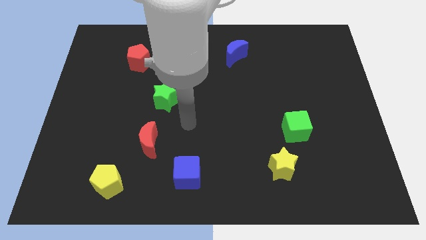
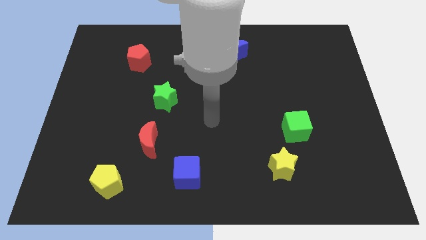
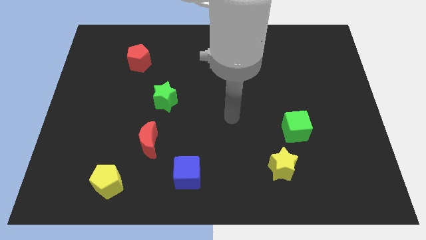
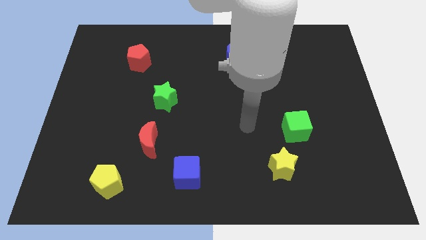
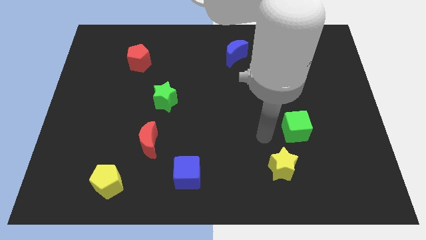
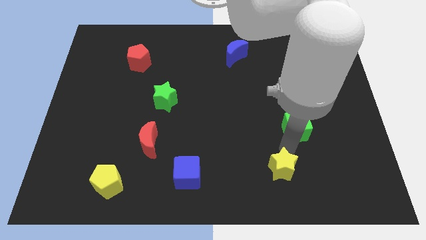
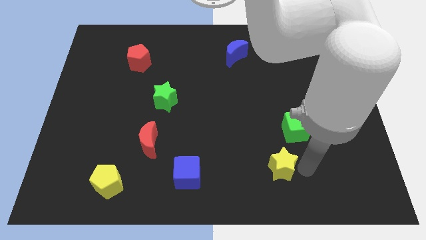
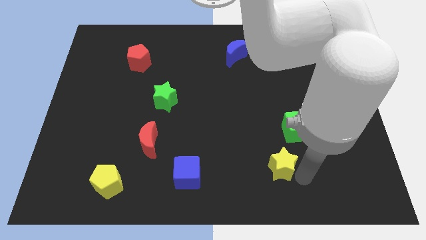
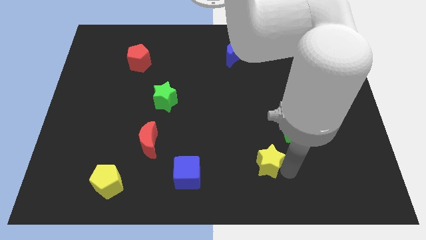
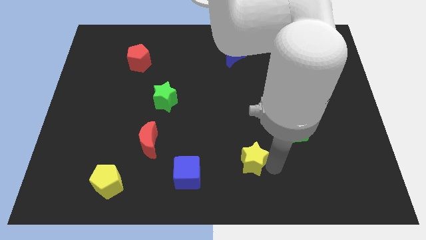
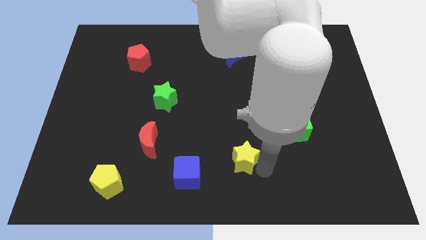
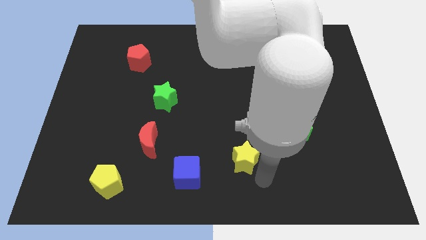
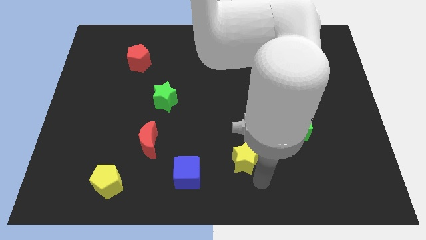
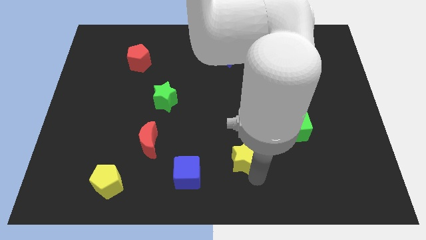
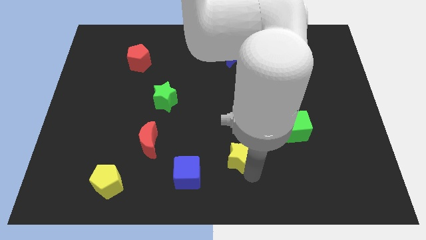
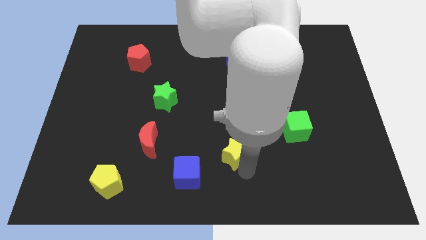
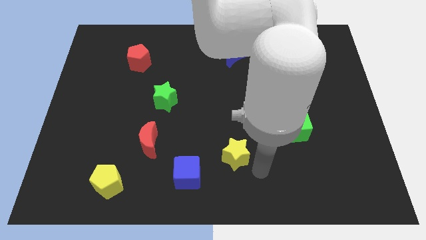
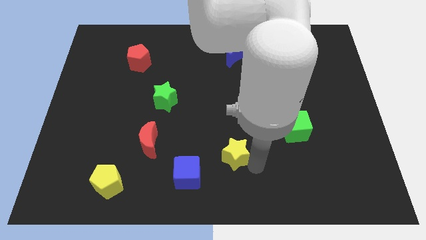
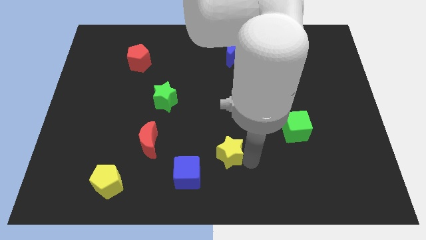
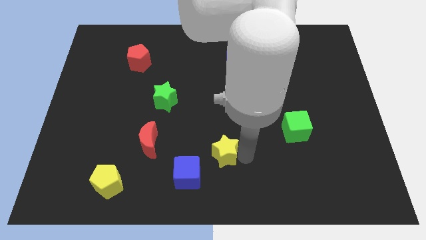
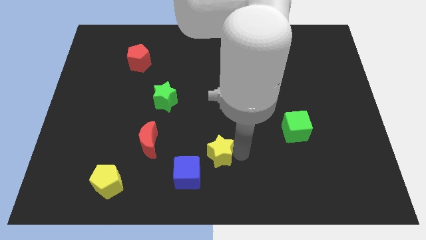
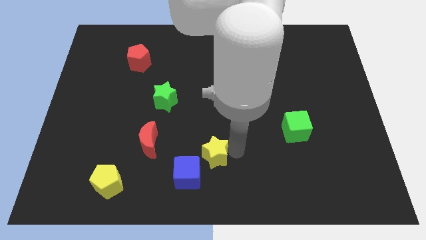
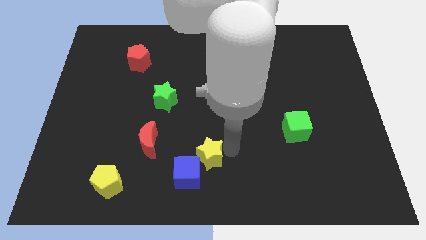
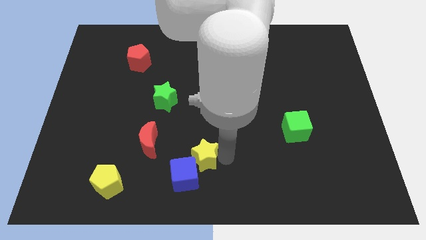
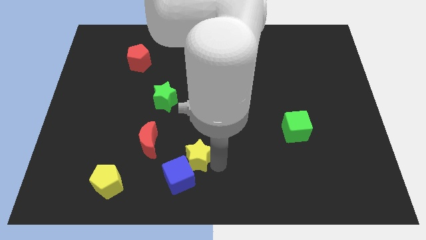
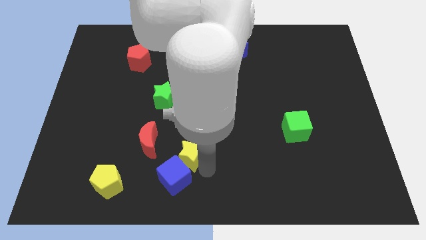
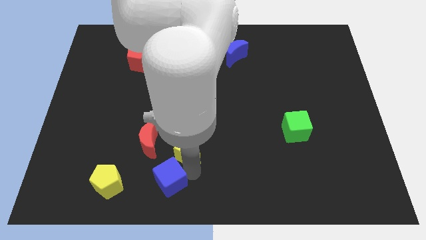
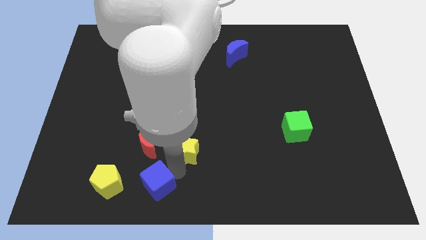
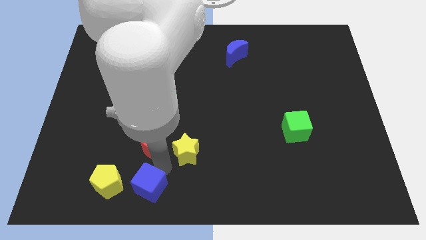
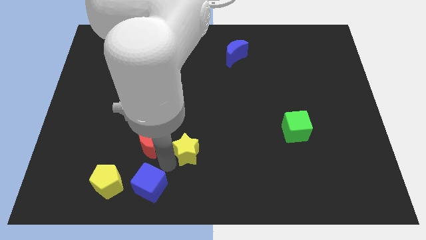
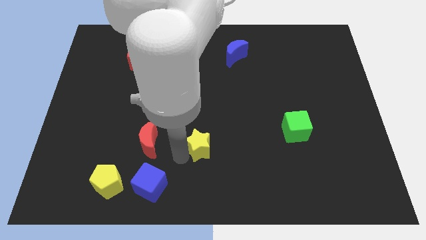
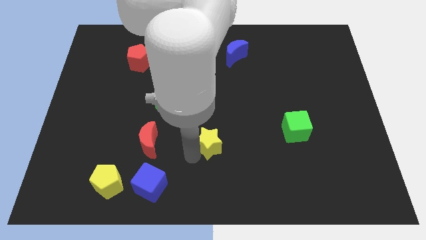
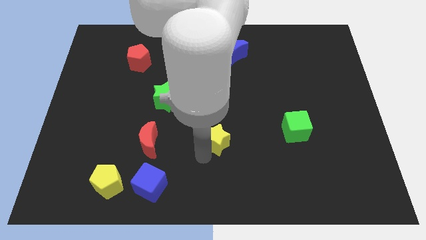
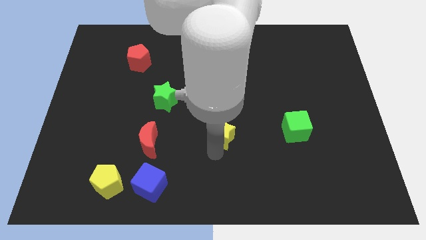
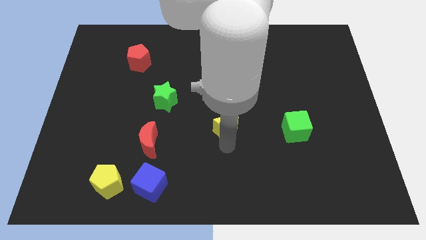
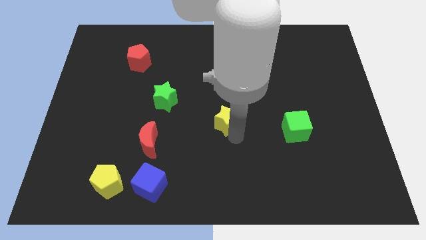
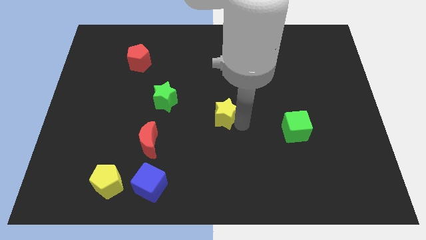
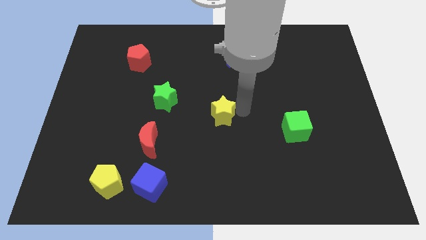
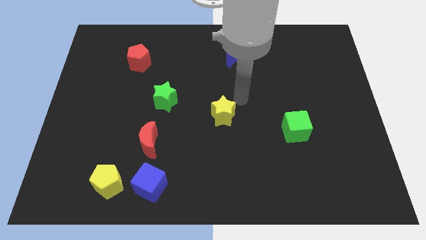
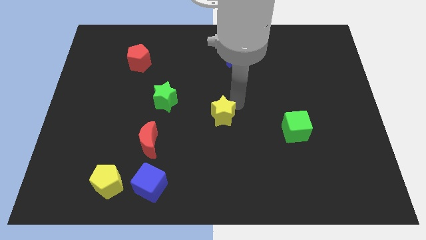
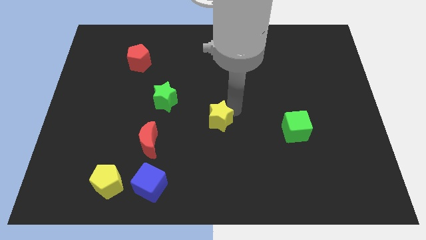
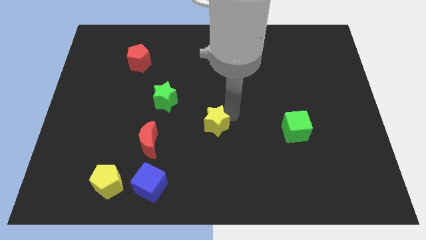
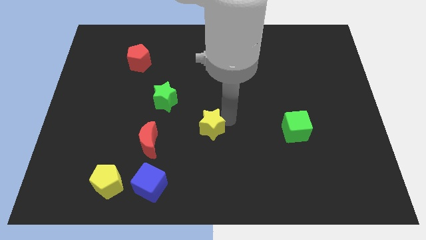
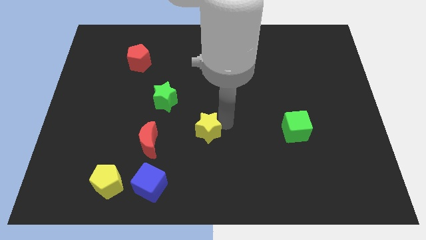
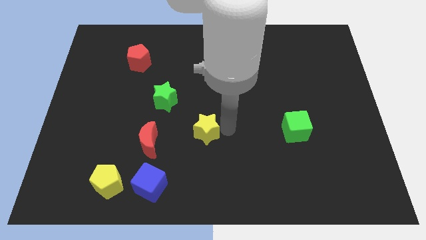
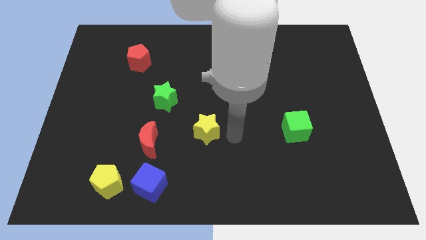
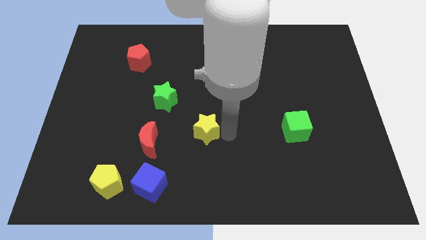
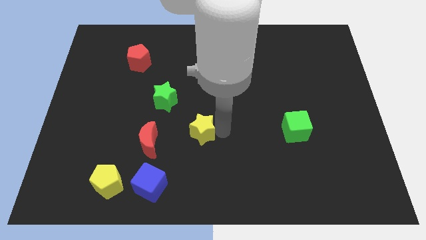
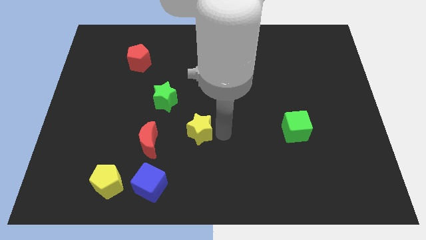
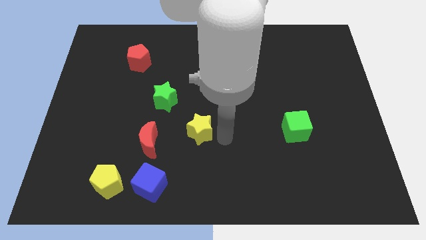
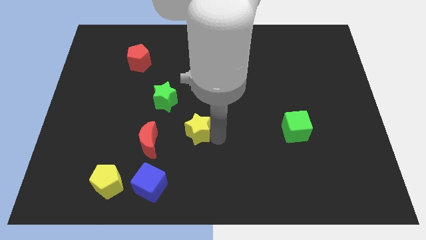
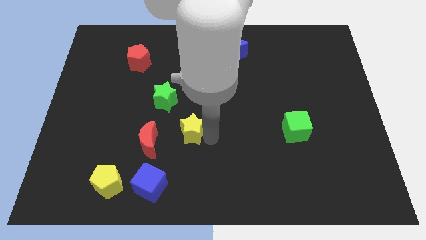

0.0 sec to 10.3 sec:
slide the yellow star to the top right of the red moon

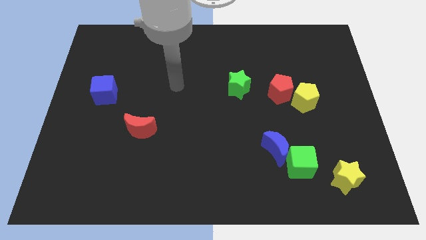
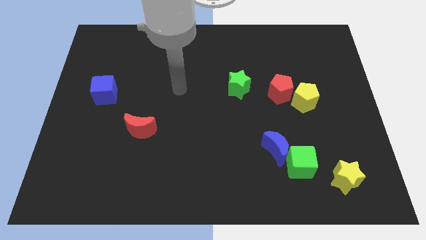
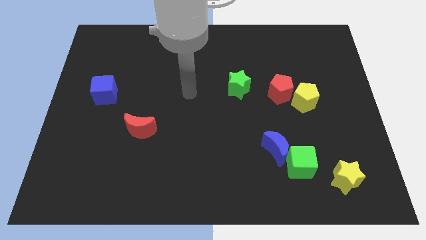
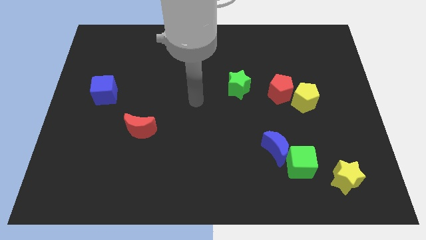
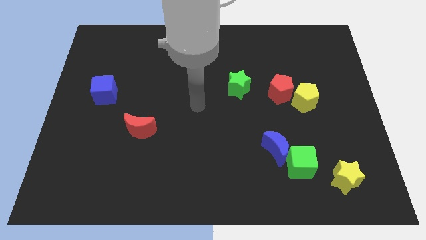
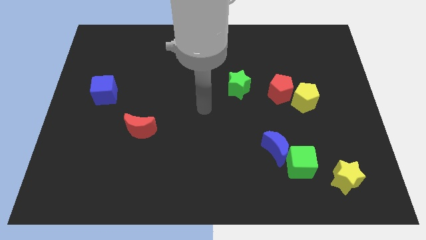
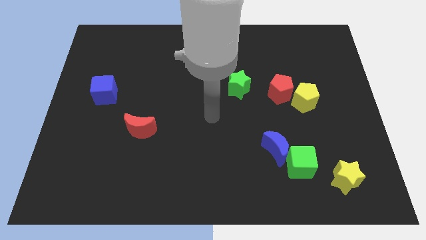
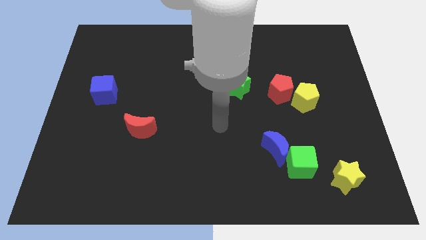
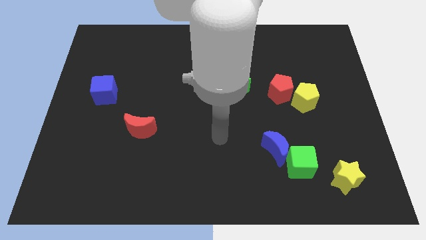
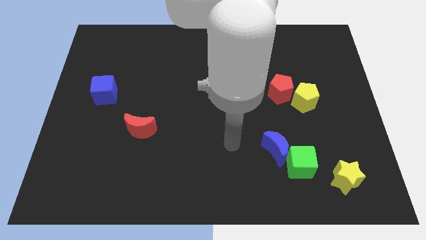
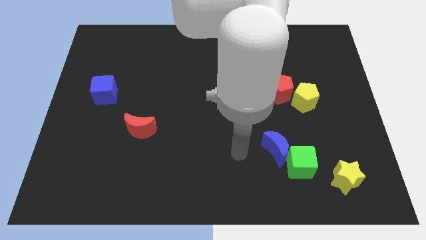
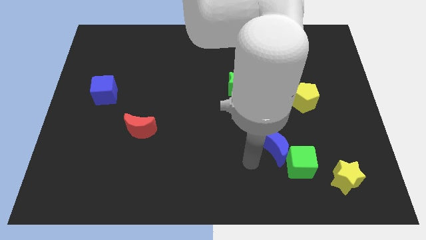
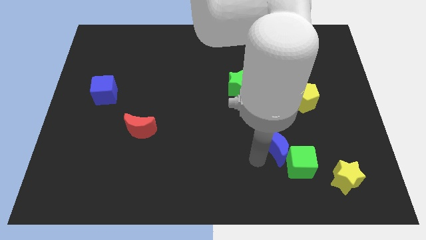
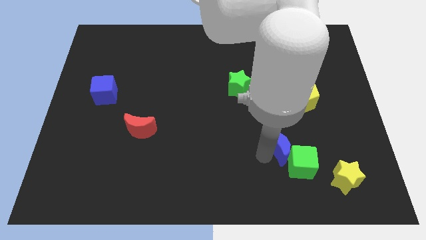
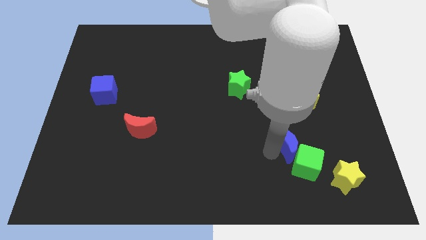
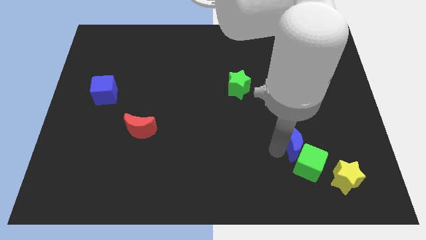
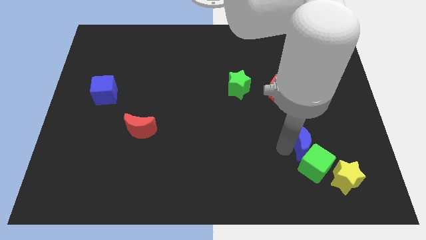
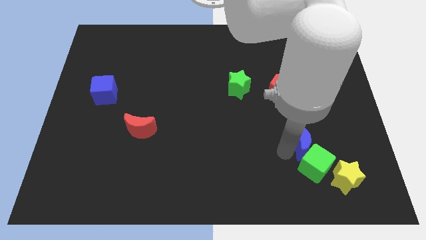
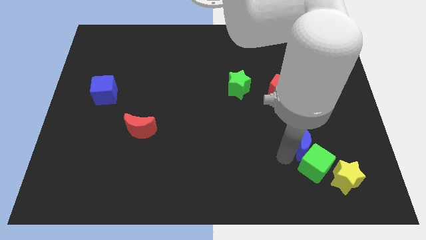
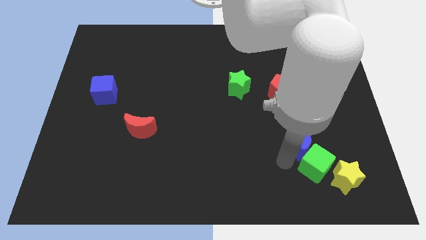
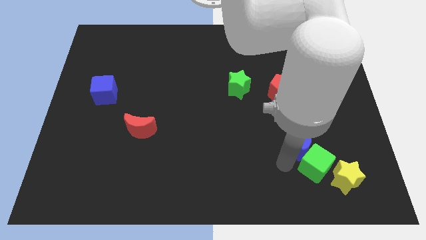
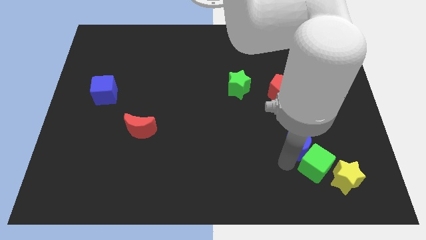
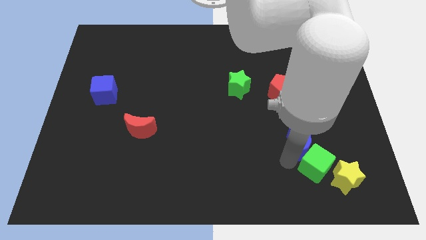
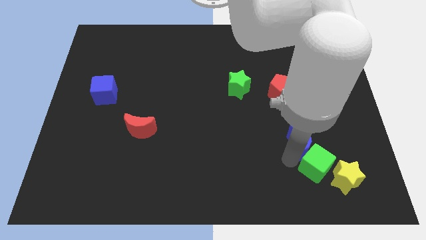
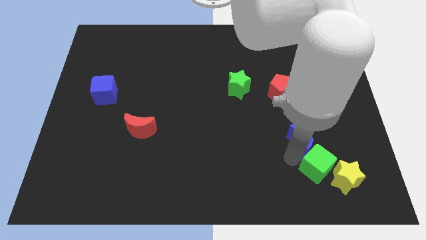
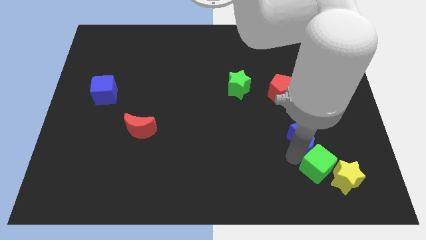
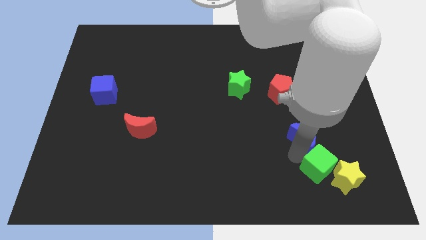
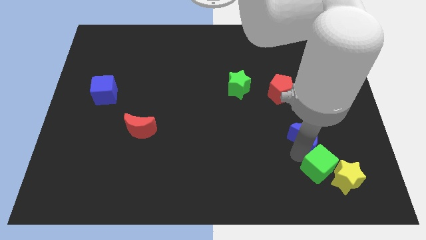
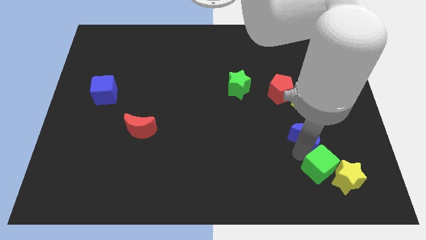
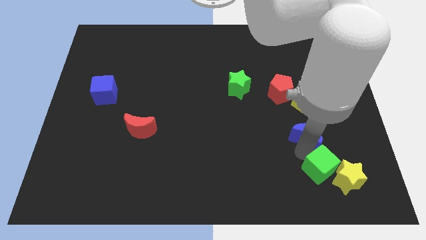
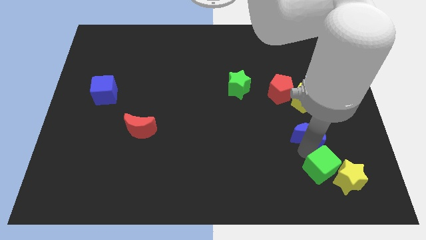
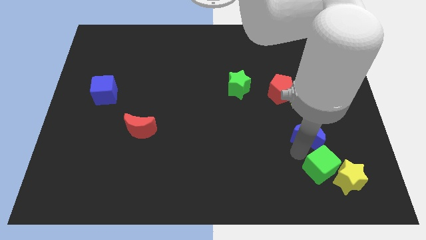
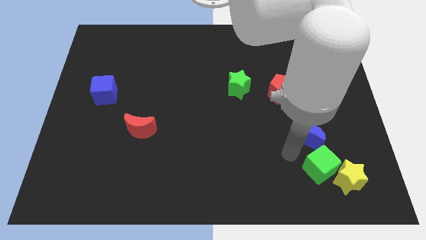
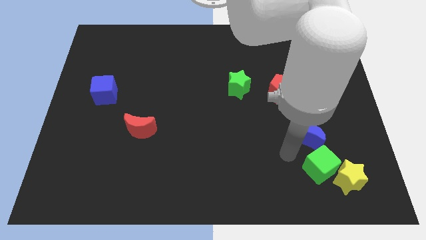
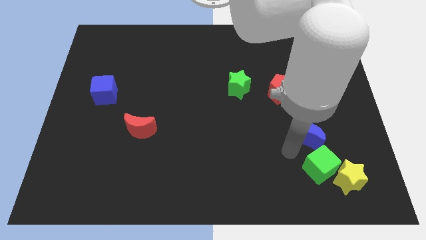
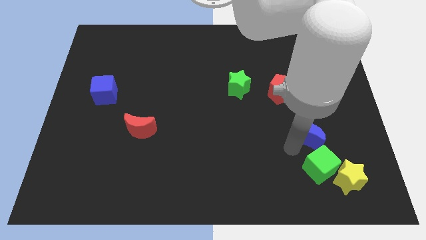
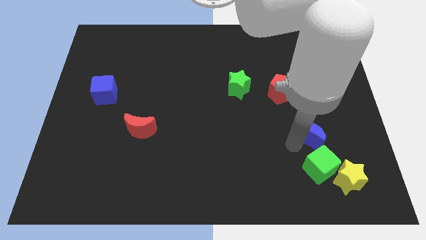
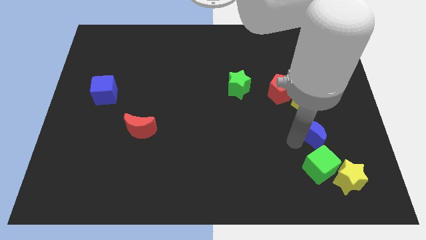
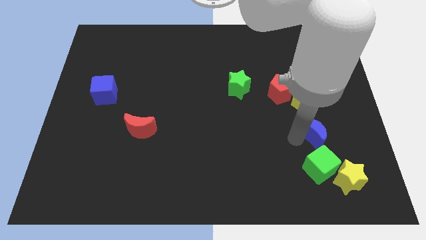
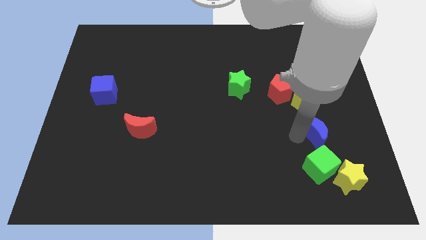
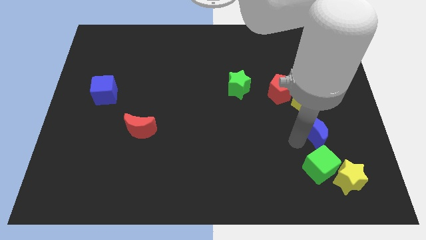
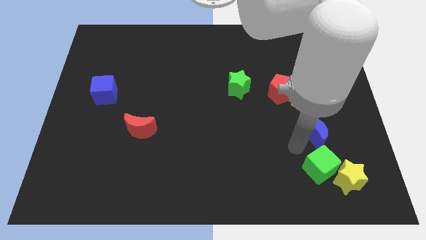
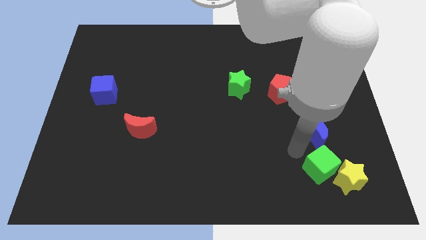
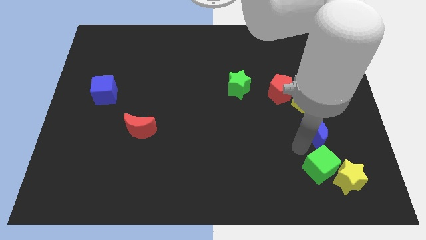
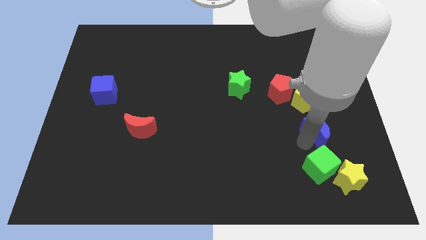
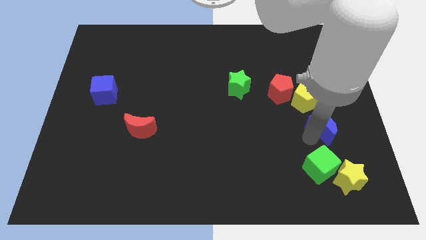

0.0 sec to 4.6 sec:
push the blue moon to the bottom right of the yellow pentagon
